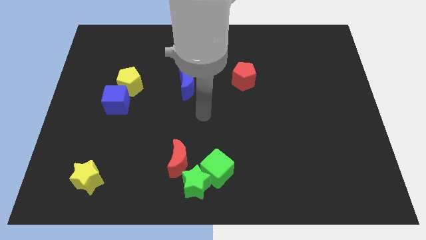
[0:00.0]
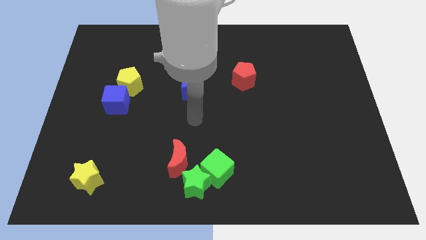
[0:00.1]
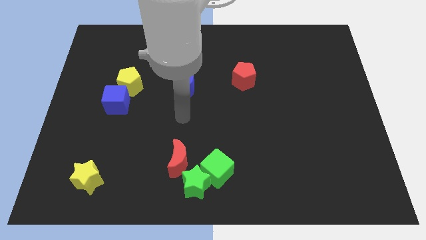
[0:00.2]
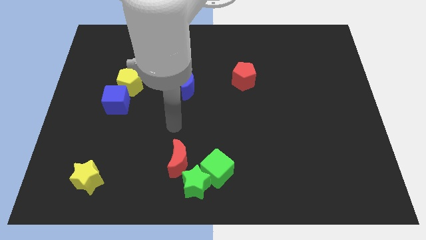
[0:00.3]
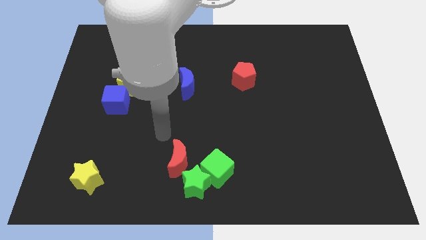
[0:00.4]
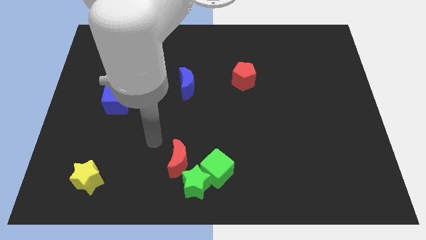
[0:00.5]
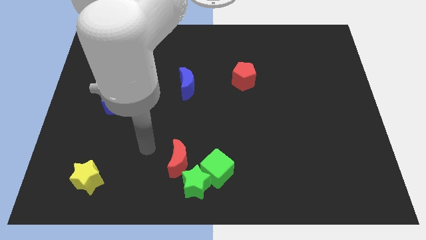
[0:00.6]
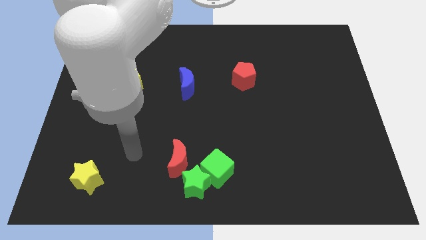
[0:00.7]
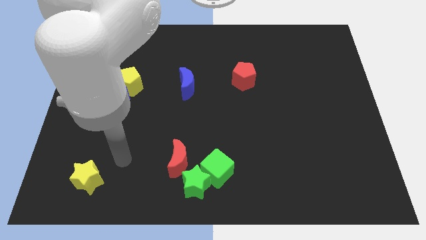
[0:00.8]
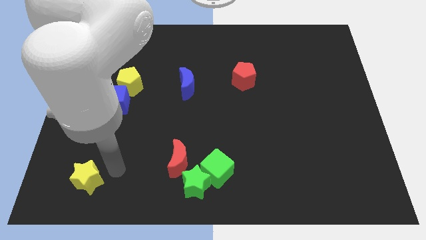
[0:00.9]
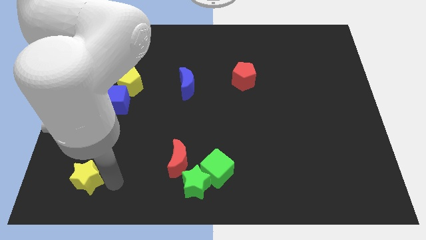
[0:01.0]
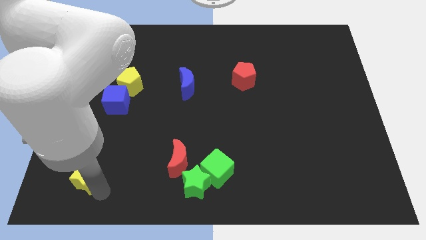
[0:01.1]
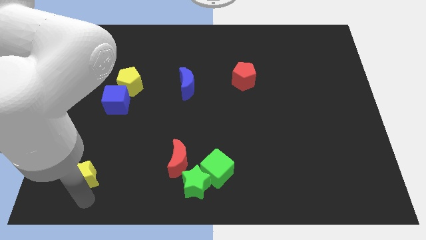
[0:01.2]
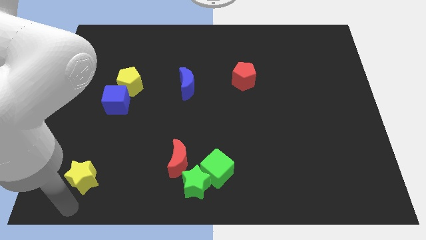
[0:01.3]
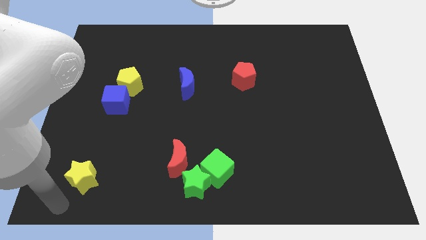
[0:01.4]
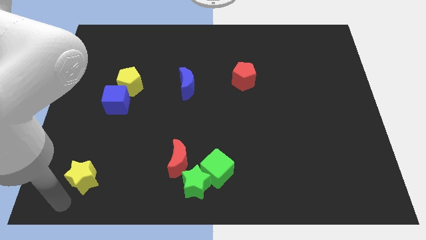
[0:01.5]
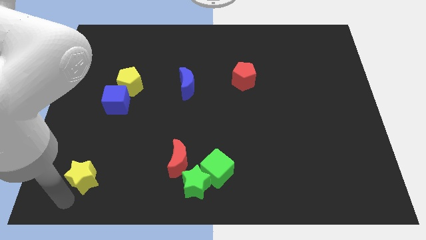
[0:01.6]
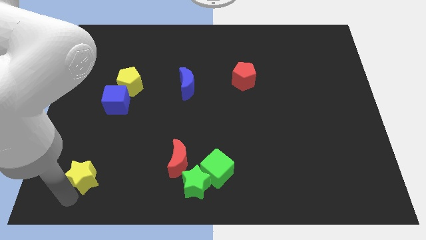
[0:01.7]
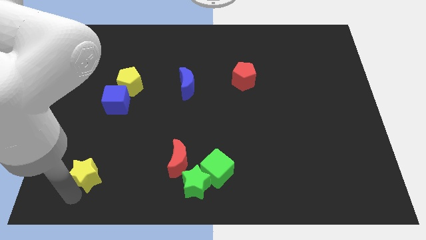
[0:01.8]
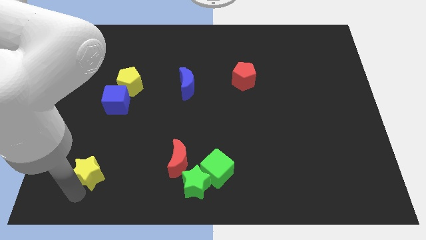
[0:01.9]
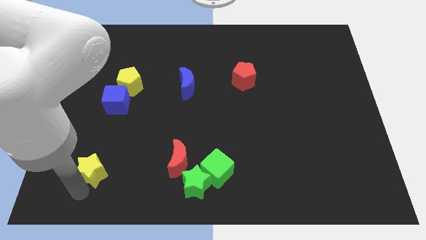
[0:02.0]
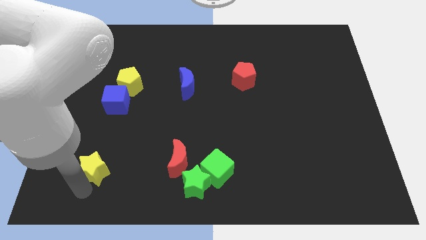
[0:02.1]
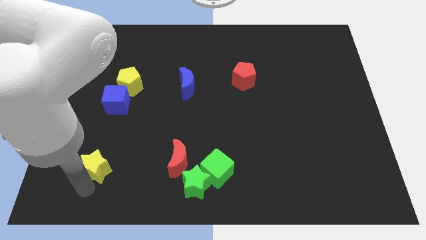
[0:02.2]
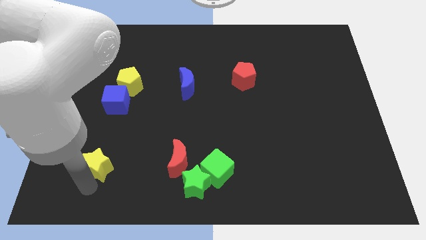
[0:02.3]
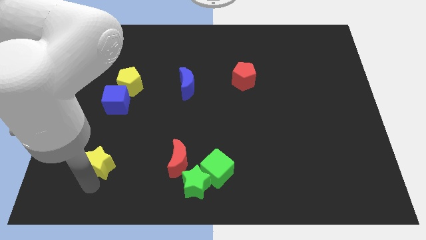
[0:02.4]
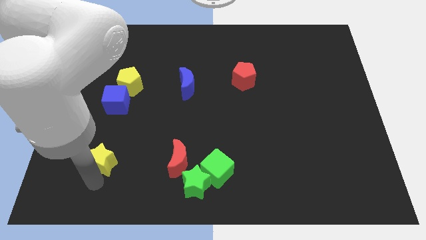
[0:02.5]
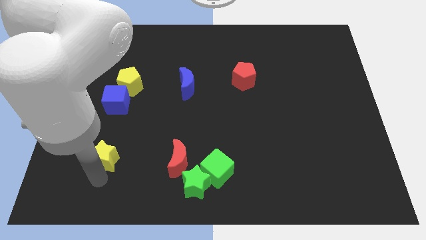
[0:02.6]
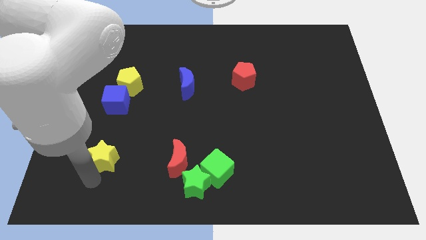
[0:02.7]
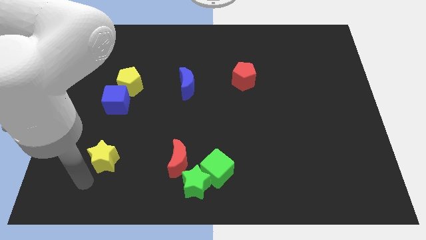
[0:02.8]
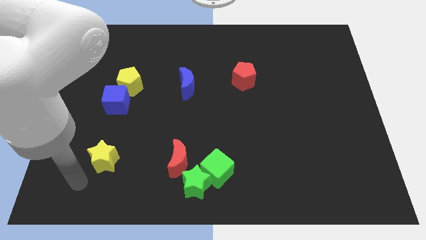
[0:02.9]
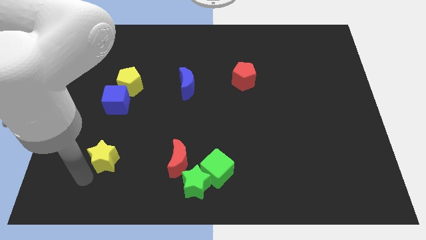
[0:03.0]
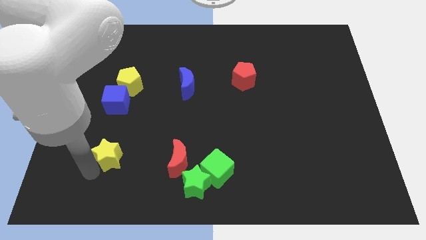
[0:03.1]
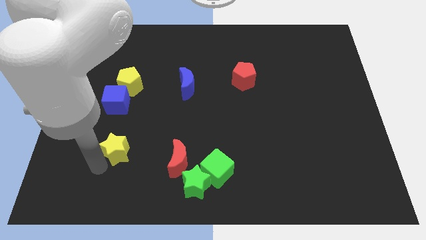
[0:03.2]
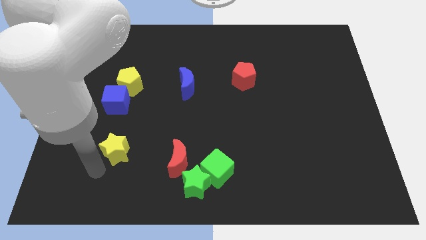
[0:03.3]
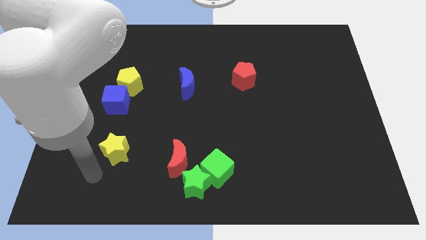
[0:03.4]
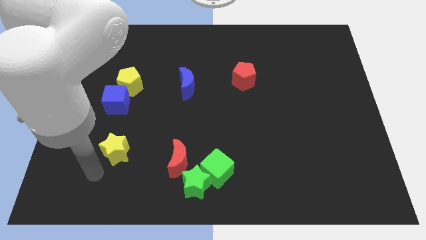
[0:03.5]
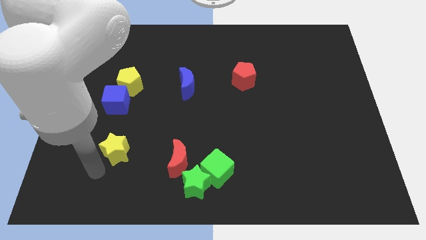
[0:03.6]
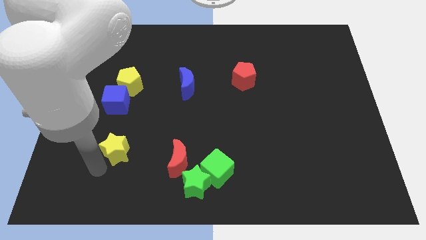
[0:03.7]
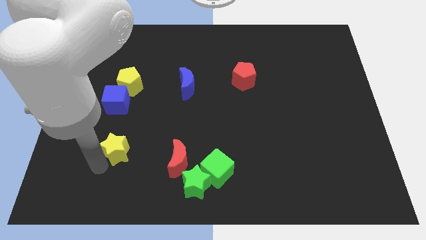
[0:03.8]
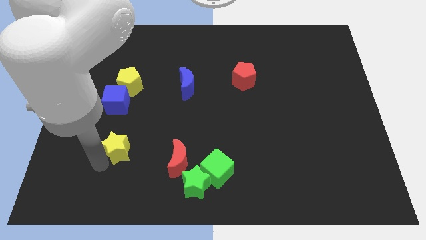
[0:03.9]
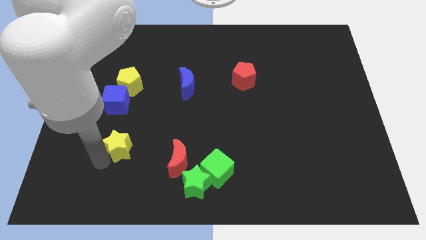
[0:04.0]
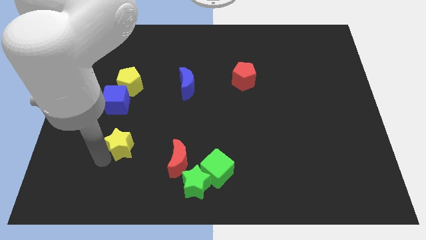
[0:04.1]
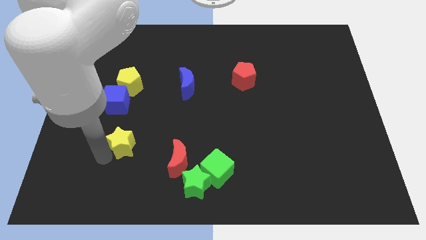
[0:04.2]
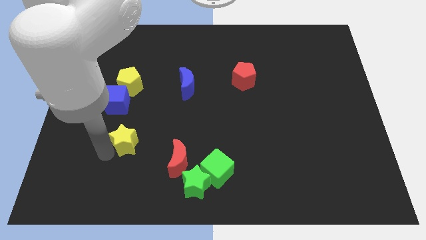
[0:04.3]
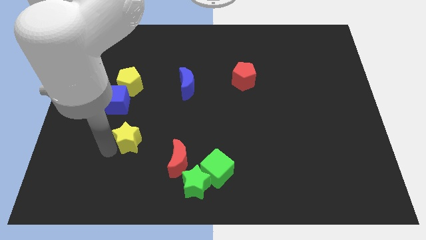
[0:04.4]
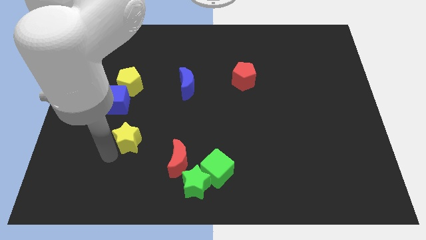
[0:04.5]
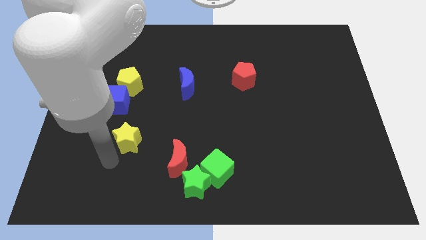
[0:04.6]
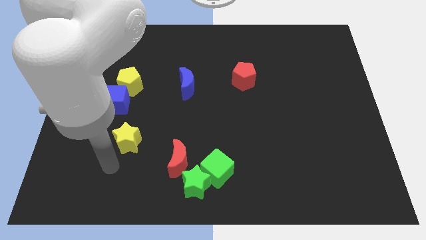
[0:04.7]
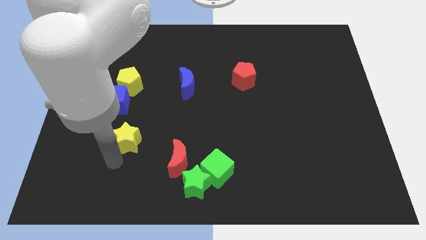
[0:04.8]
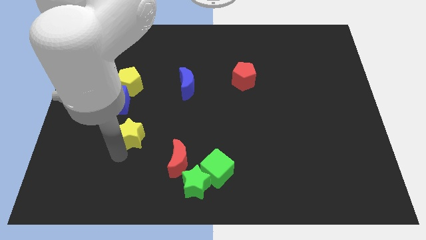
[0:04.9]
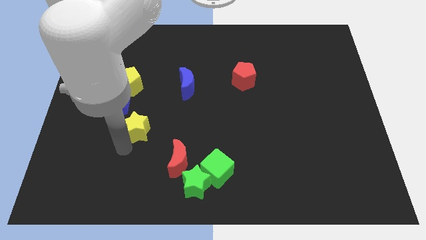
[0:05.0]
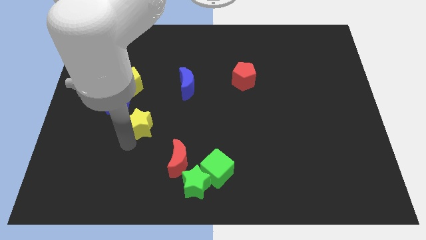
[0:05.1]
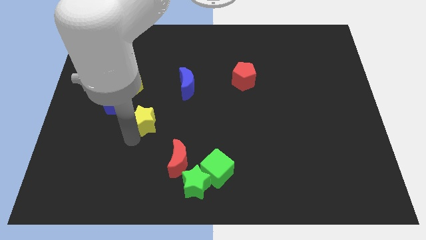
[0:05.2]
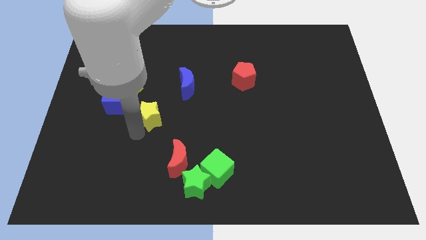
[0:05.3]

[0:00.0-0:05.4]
push the yellow star right of the blue cube

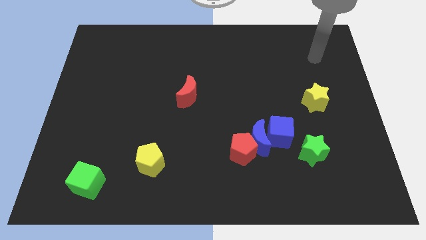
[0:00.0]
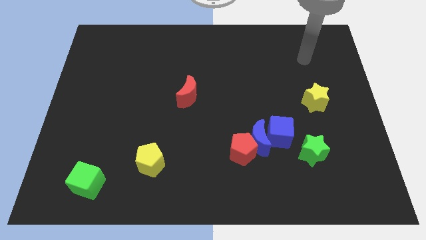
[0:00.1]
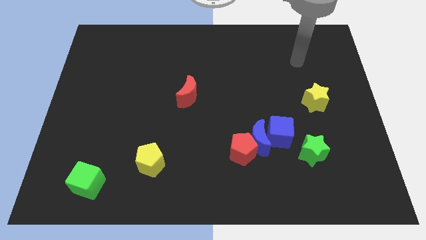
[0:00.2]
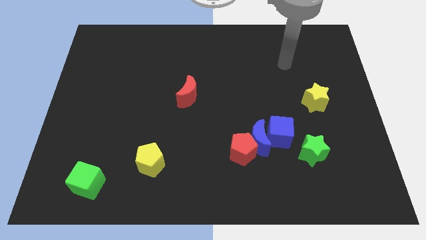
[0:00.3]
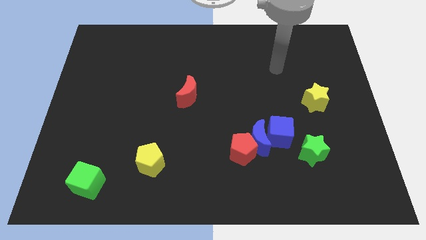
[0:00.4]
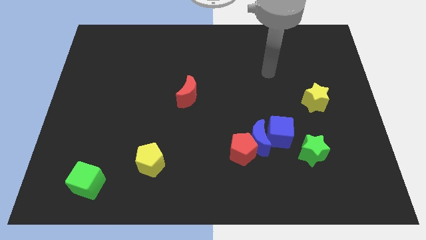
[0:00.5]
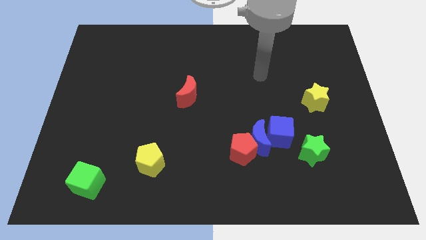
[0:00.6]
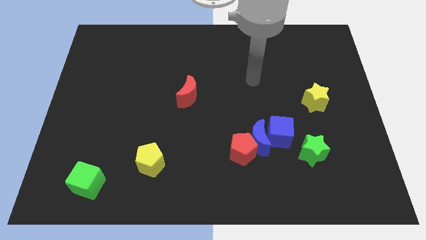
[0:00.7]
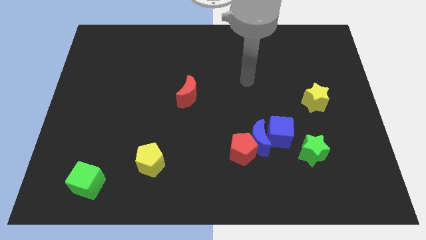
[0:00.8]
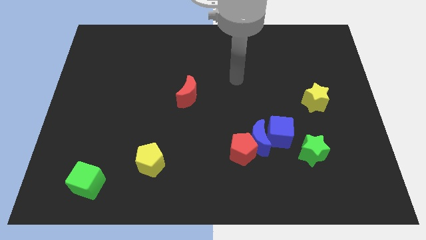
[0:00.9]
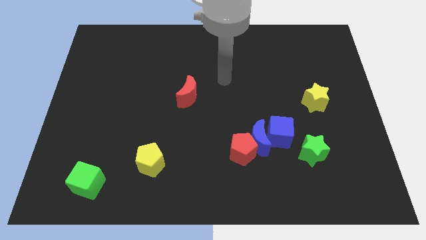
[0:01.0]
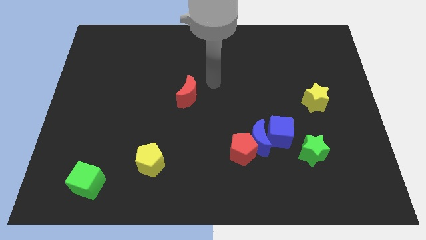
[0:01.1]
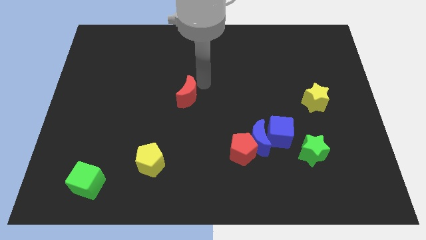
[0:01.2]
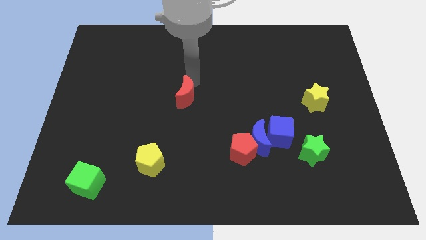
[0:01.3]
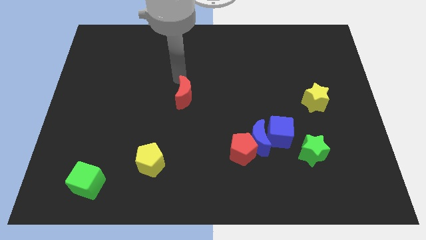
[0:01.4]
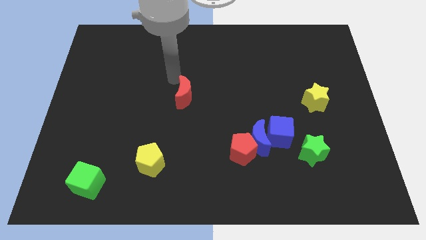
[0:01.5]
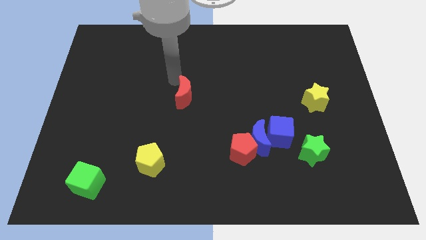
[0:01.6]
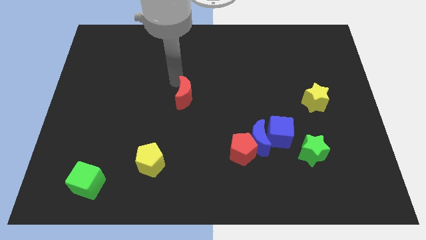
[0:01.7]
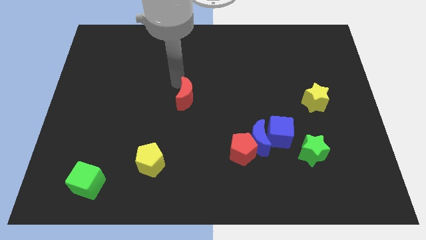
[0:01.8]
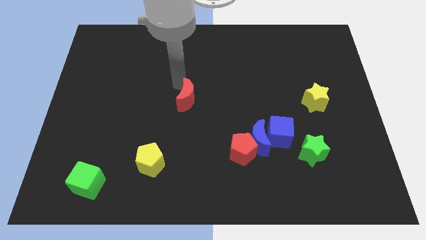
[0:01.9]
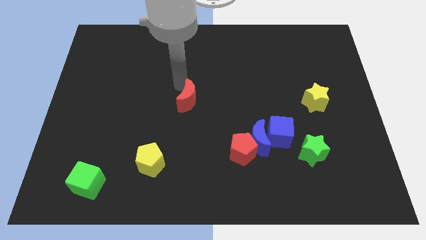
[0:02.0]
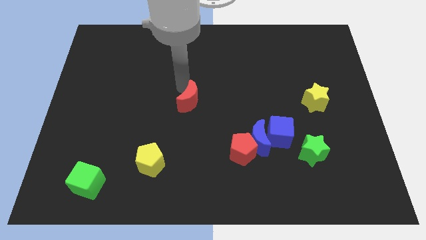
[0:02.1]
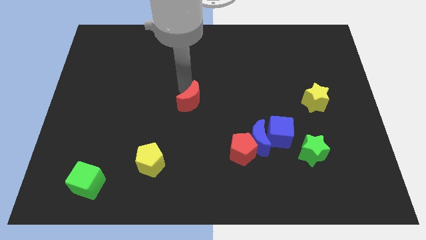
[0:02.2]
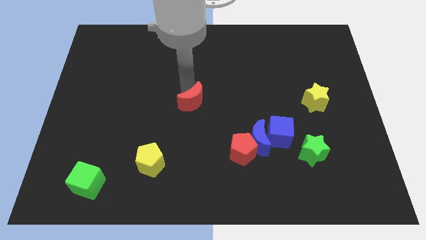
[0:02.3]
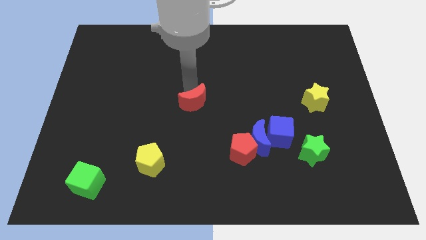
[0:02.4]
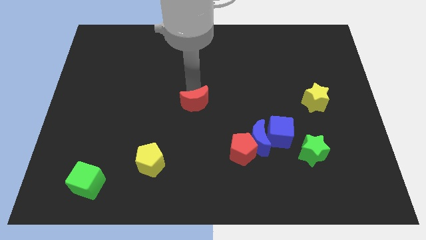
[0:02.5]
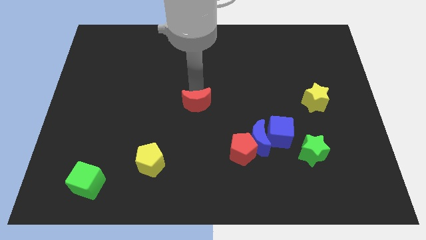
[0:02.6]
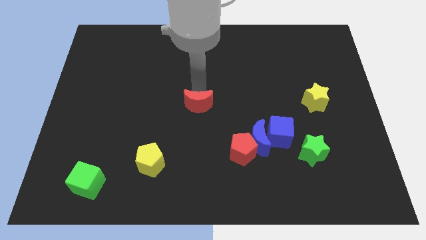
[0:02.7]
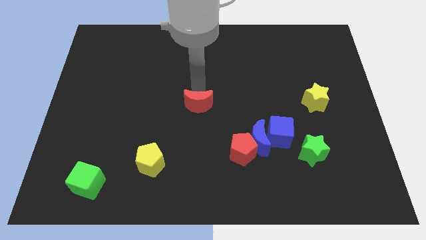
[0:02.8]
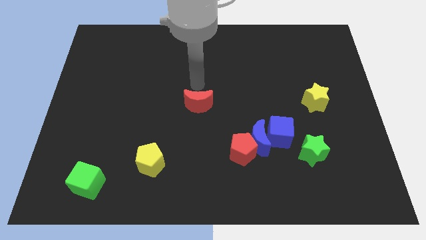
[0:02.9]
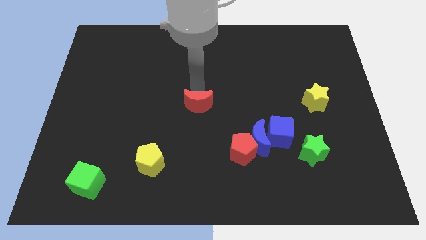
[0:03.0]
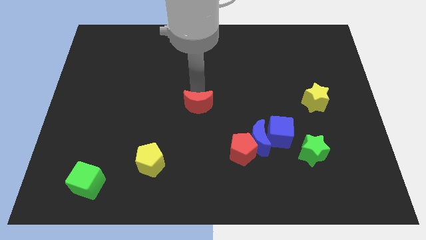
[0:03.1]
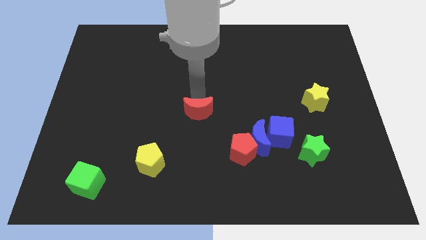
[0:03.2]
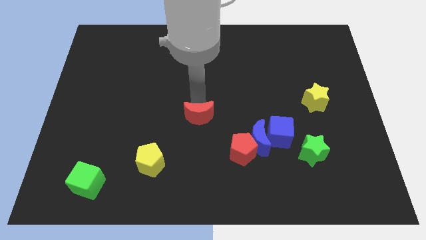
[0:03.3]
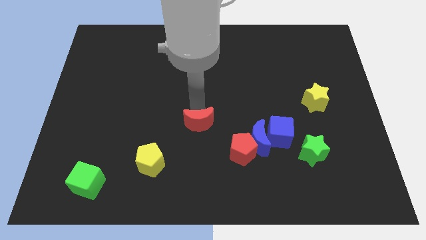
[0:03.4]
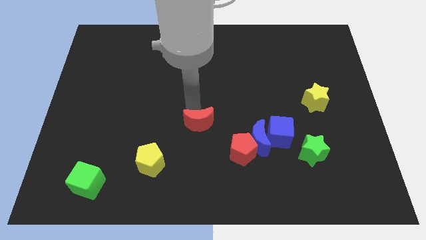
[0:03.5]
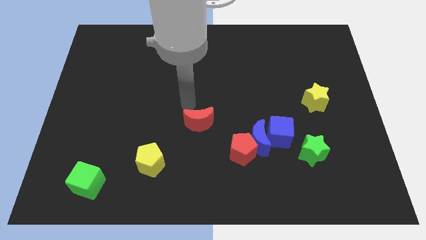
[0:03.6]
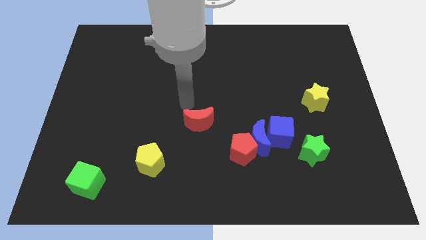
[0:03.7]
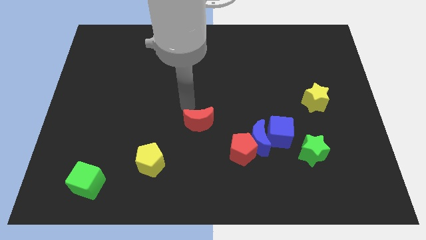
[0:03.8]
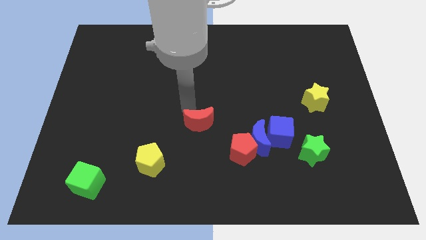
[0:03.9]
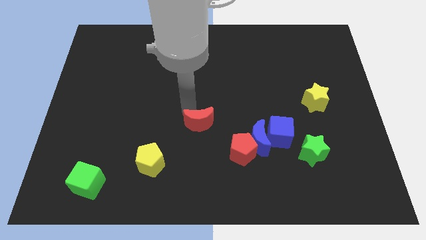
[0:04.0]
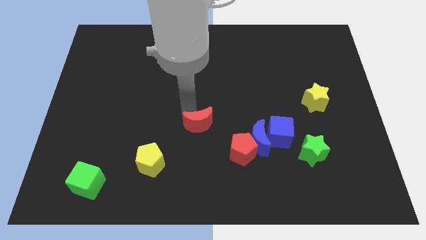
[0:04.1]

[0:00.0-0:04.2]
slide the red moon to the left side of the blue moon
